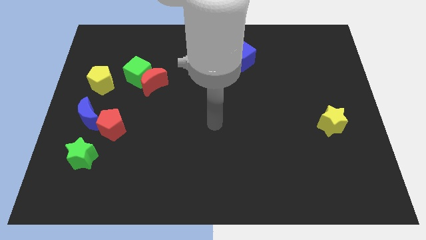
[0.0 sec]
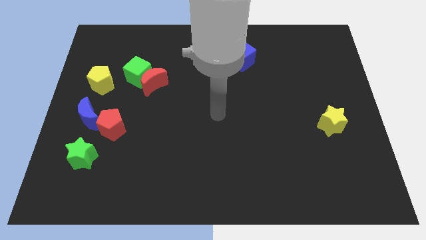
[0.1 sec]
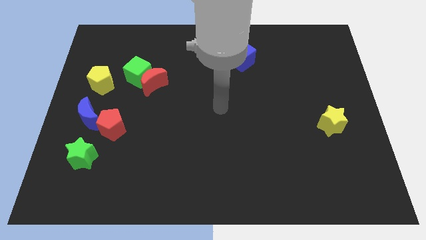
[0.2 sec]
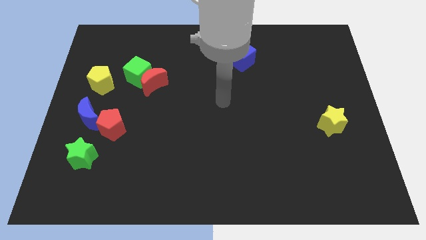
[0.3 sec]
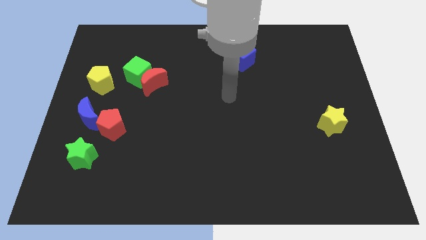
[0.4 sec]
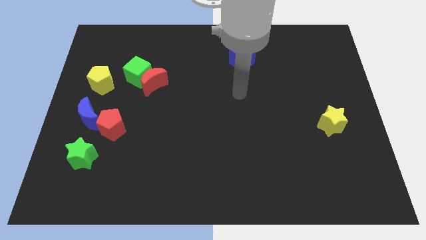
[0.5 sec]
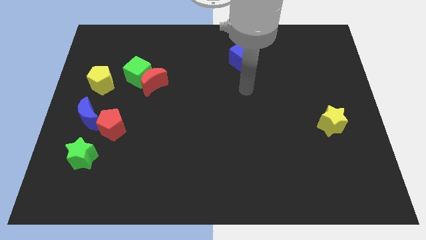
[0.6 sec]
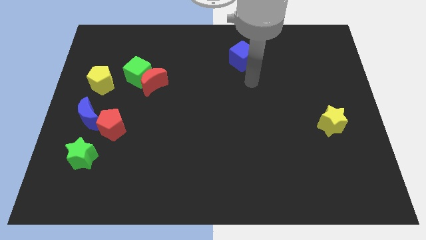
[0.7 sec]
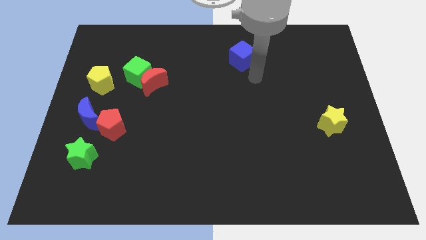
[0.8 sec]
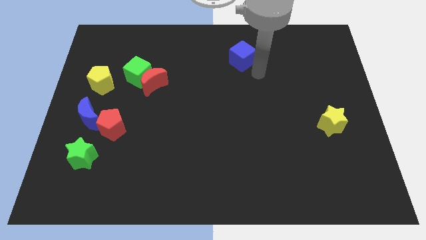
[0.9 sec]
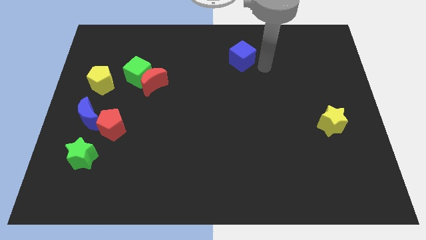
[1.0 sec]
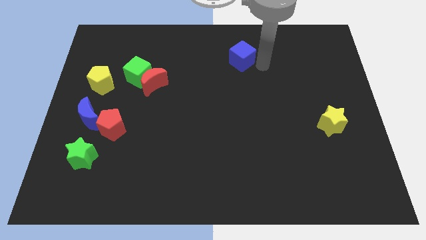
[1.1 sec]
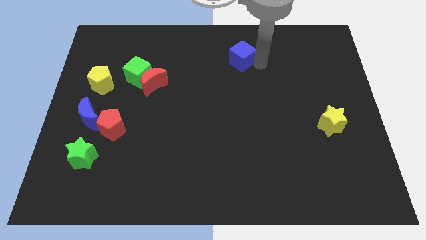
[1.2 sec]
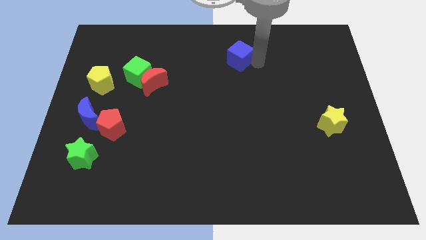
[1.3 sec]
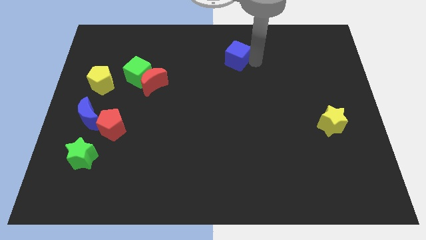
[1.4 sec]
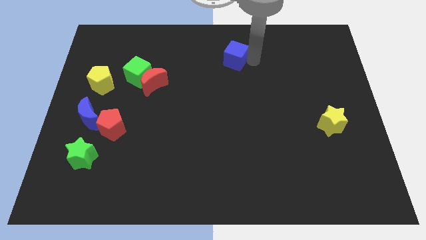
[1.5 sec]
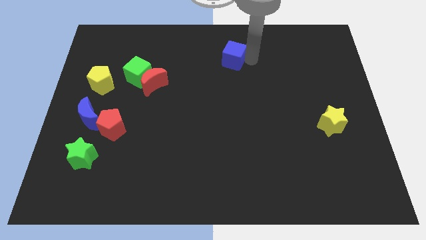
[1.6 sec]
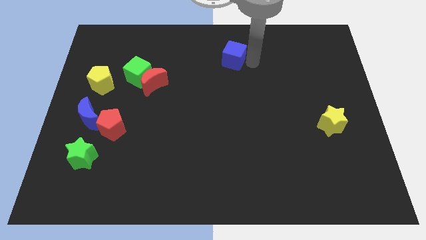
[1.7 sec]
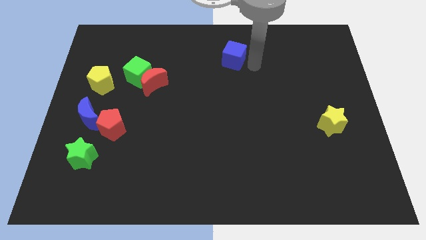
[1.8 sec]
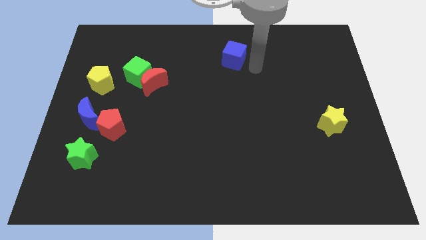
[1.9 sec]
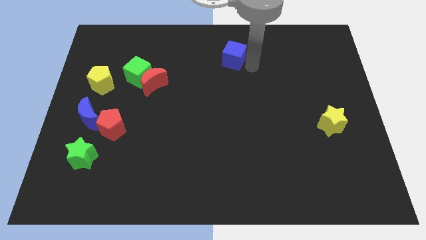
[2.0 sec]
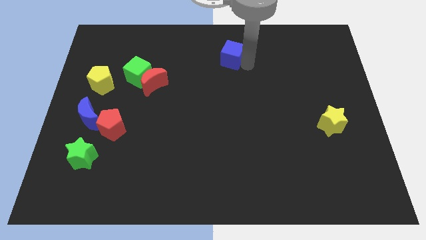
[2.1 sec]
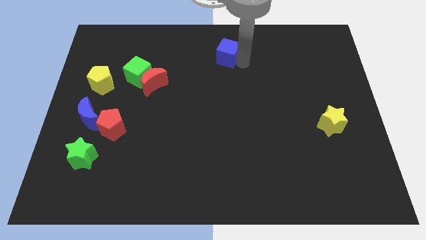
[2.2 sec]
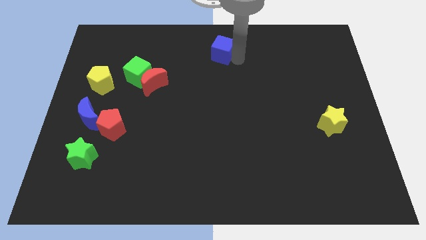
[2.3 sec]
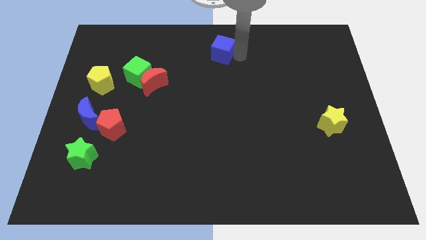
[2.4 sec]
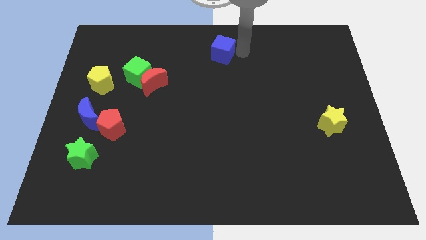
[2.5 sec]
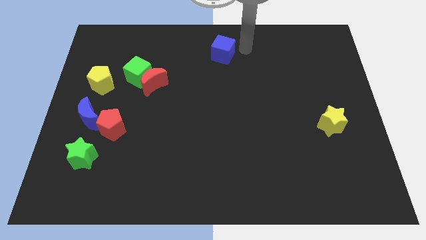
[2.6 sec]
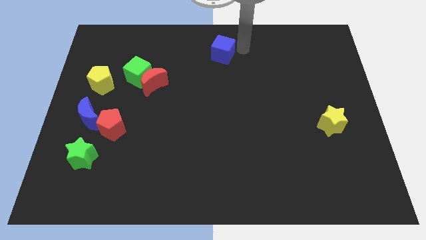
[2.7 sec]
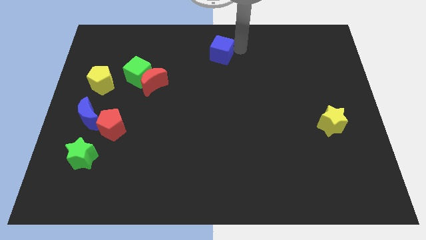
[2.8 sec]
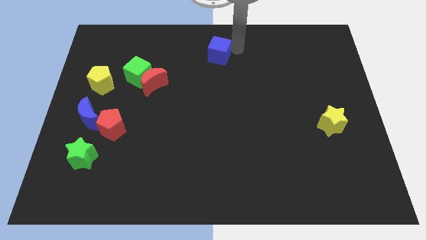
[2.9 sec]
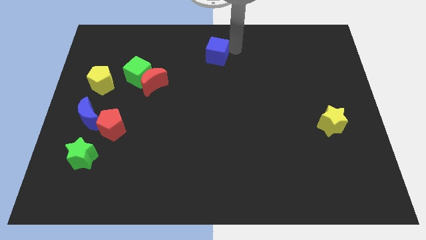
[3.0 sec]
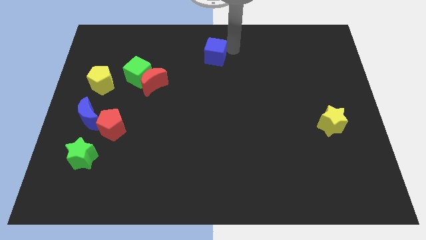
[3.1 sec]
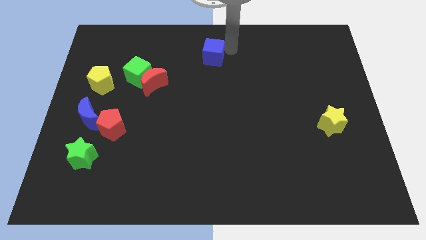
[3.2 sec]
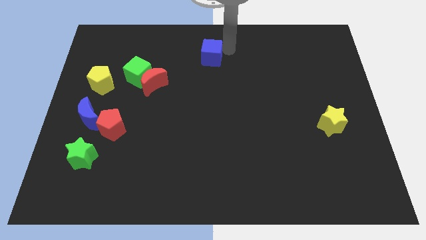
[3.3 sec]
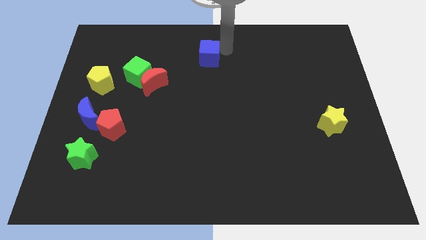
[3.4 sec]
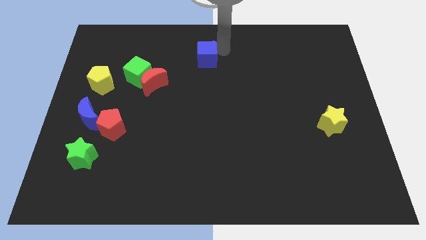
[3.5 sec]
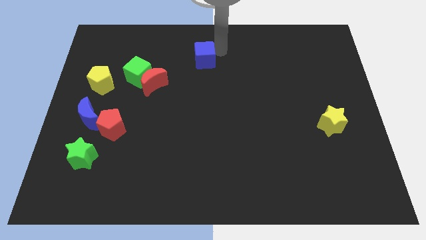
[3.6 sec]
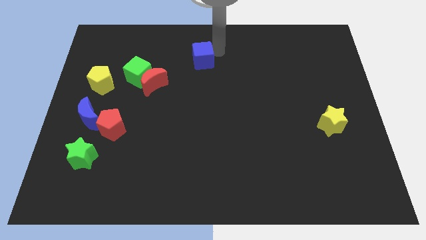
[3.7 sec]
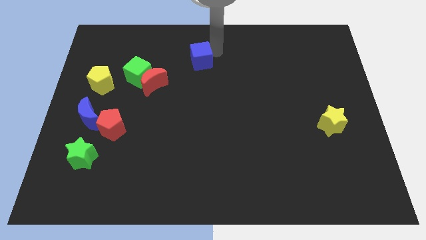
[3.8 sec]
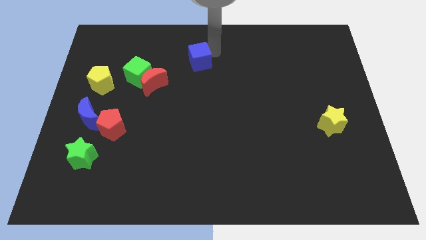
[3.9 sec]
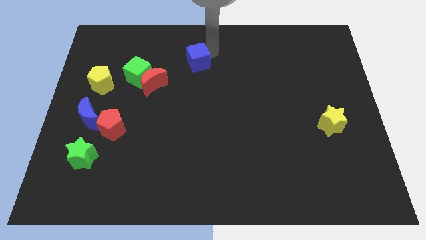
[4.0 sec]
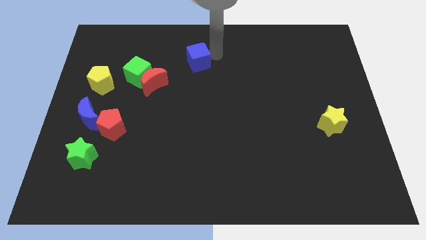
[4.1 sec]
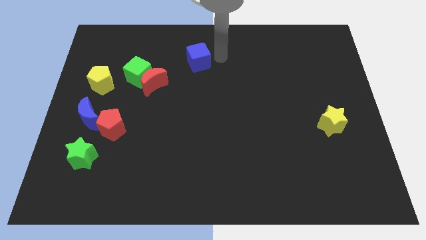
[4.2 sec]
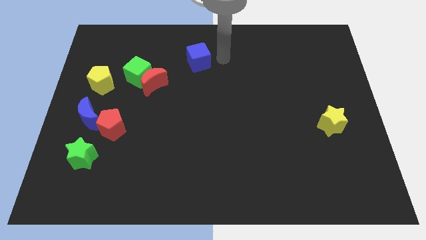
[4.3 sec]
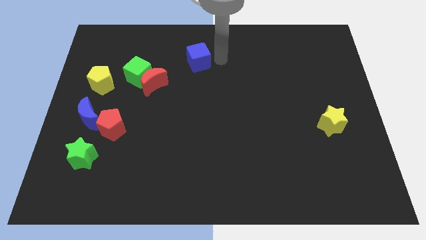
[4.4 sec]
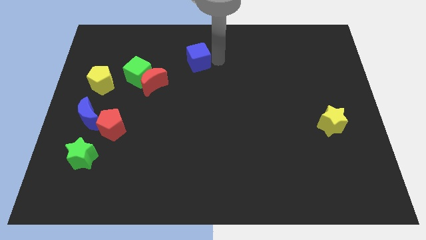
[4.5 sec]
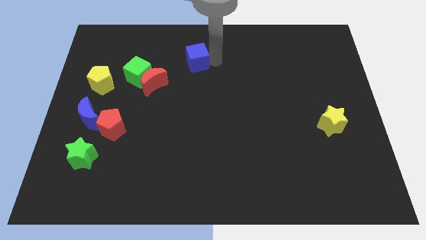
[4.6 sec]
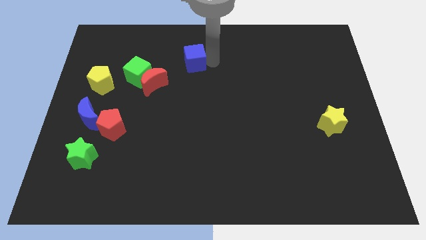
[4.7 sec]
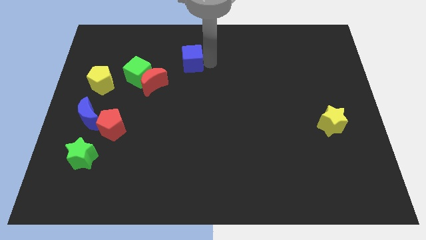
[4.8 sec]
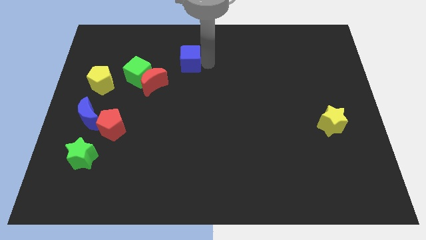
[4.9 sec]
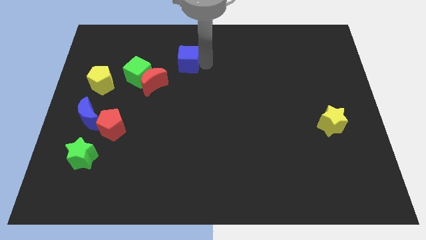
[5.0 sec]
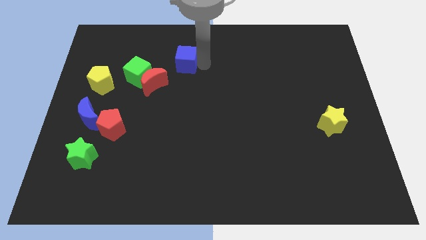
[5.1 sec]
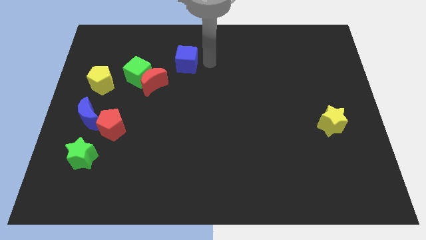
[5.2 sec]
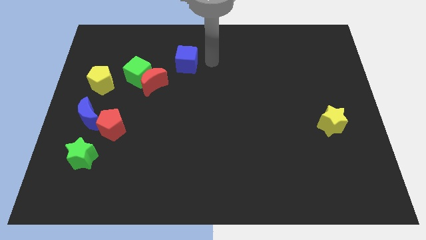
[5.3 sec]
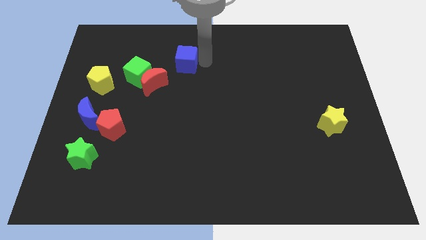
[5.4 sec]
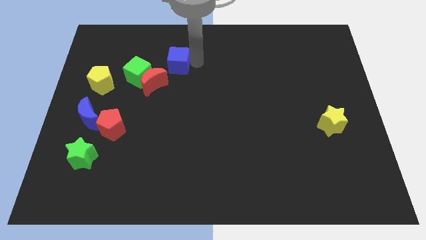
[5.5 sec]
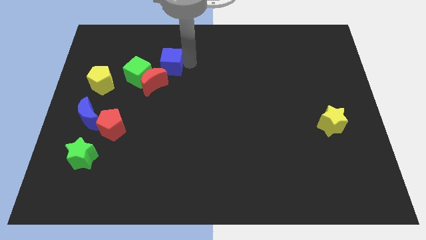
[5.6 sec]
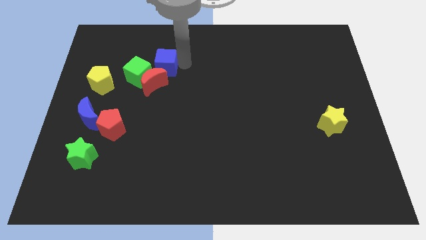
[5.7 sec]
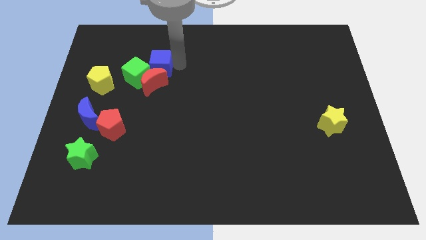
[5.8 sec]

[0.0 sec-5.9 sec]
move the blue cube to the left

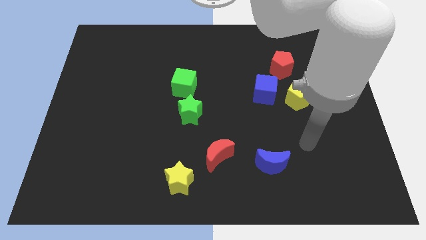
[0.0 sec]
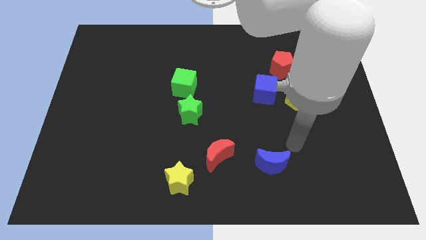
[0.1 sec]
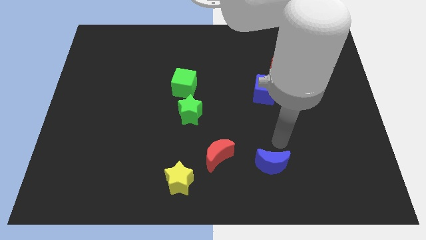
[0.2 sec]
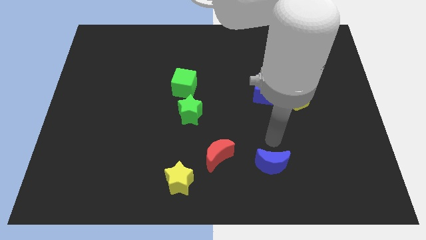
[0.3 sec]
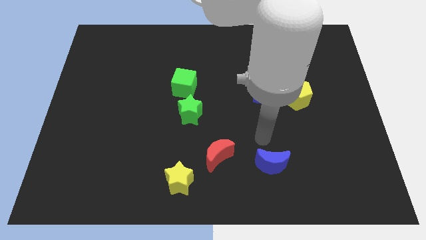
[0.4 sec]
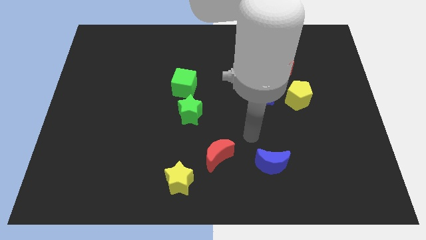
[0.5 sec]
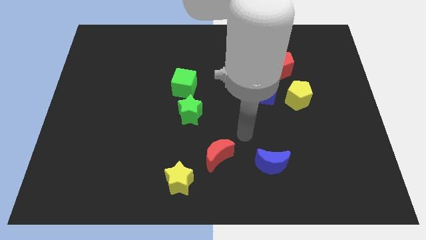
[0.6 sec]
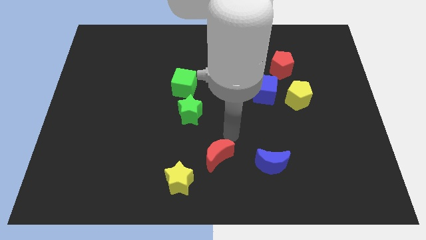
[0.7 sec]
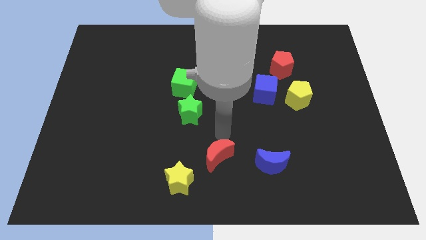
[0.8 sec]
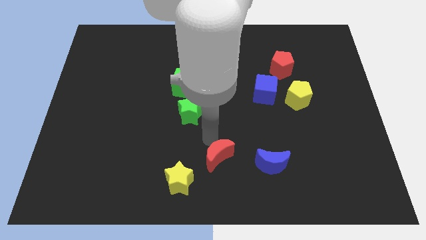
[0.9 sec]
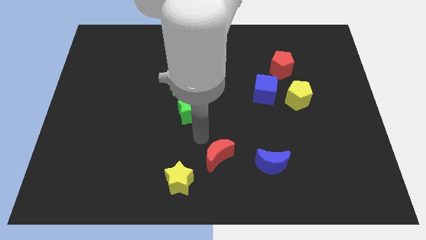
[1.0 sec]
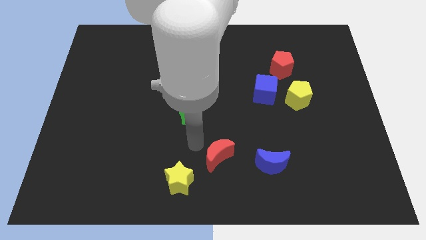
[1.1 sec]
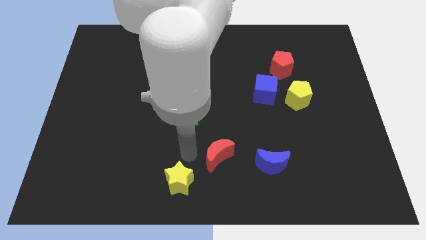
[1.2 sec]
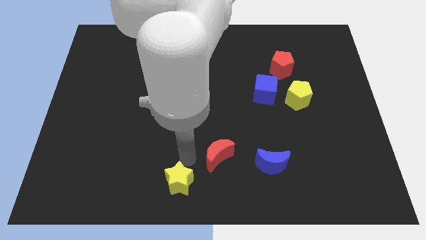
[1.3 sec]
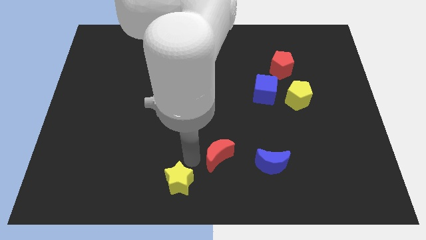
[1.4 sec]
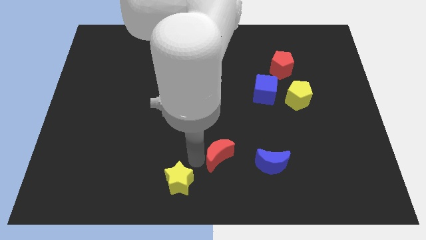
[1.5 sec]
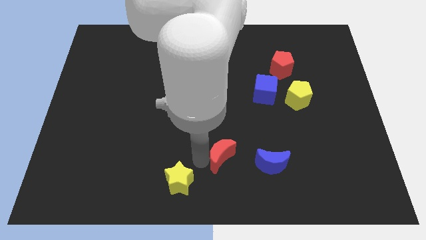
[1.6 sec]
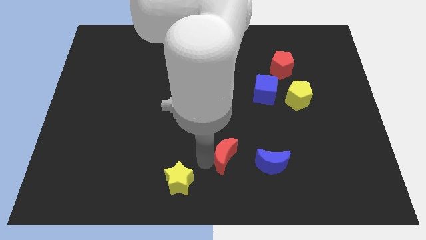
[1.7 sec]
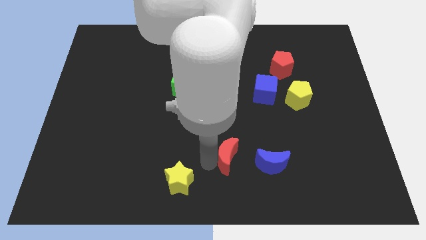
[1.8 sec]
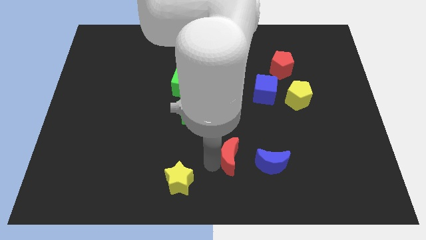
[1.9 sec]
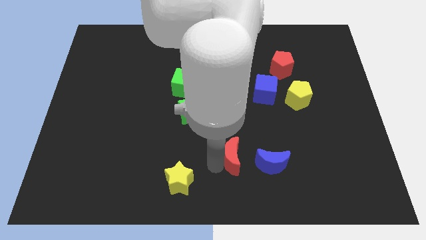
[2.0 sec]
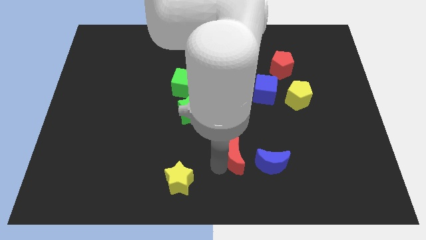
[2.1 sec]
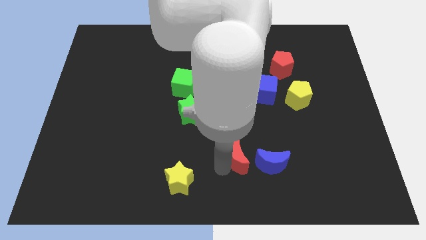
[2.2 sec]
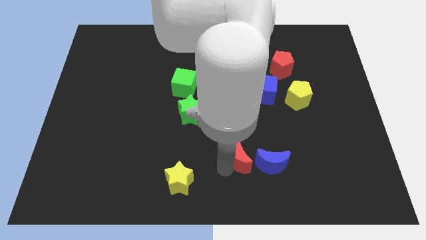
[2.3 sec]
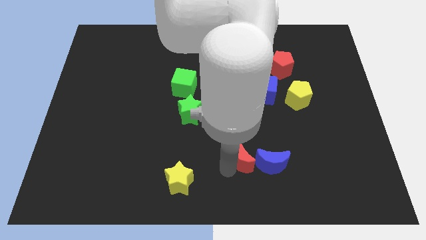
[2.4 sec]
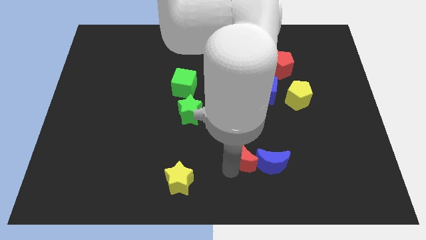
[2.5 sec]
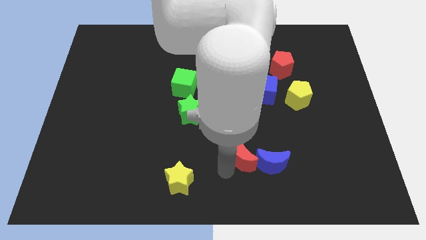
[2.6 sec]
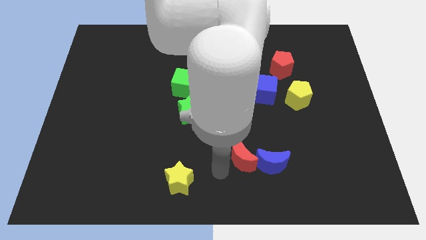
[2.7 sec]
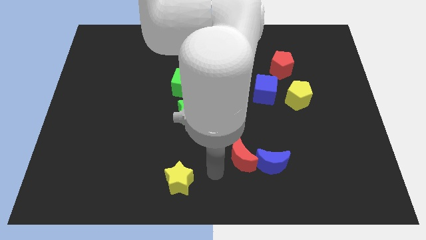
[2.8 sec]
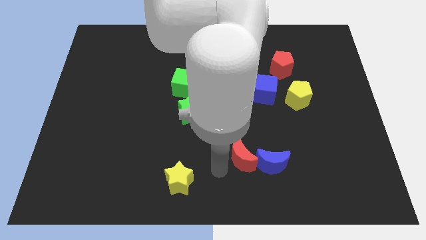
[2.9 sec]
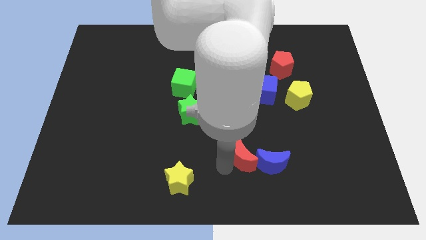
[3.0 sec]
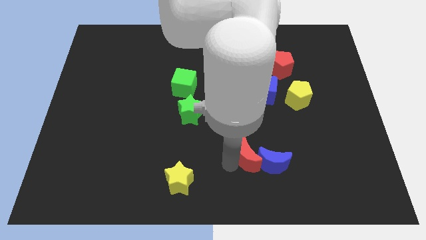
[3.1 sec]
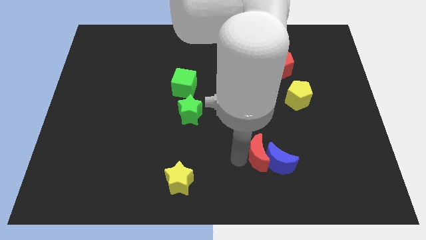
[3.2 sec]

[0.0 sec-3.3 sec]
slide the red moon a little bit to the right
